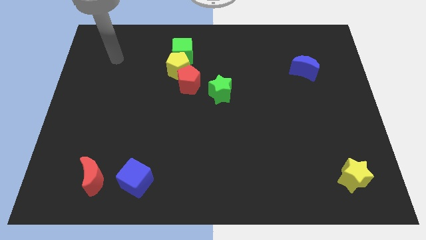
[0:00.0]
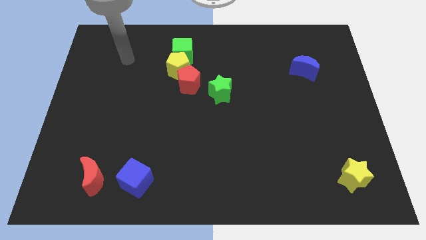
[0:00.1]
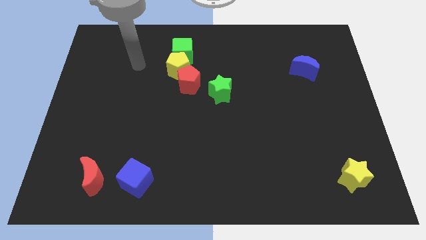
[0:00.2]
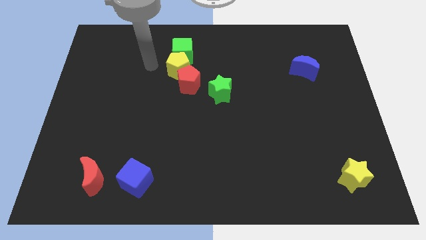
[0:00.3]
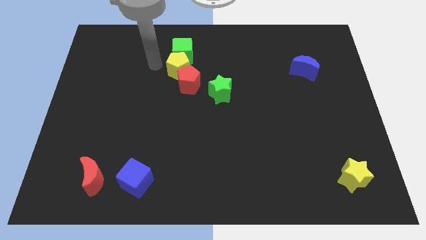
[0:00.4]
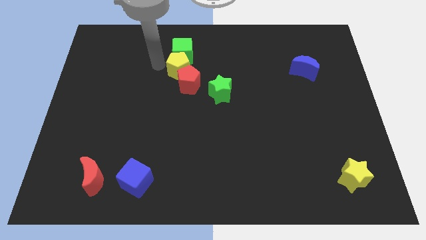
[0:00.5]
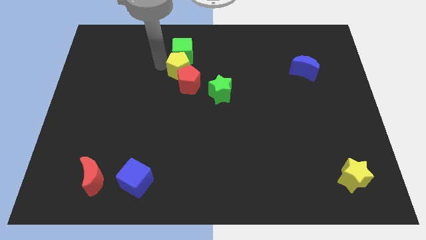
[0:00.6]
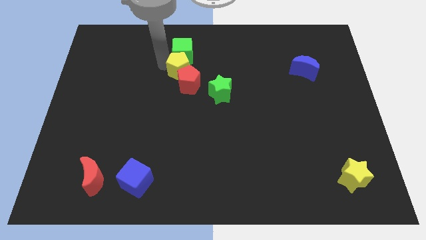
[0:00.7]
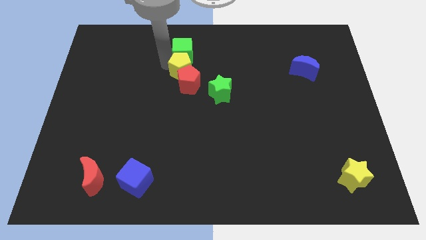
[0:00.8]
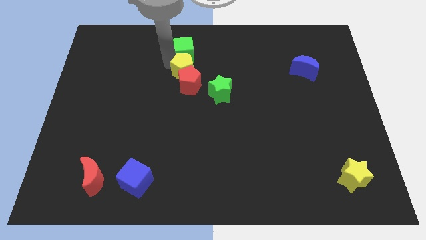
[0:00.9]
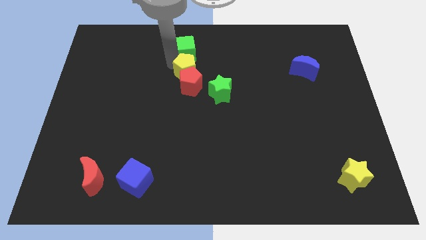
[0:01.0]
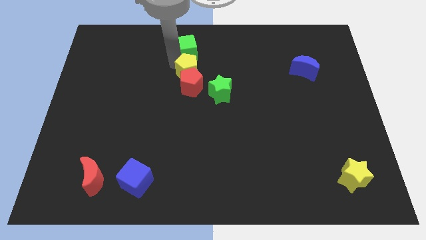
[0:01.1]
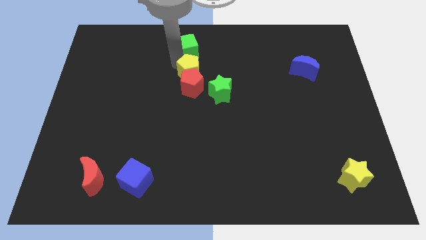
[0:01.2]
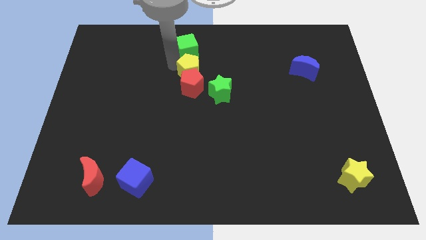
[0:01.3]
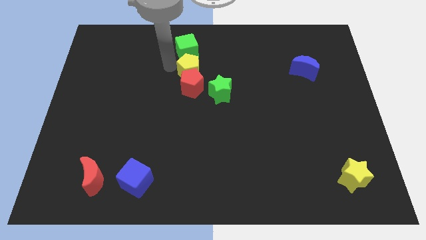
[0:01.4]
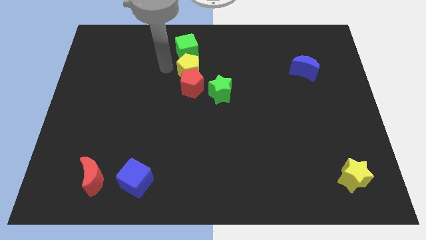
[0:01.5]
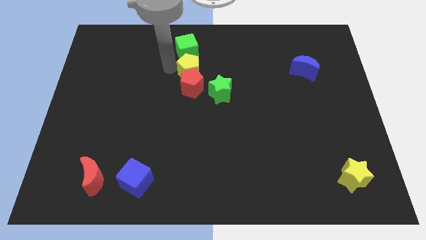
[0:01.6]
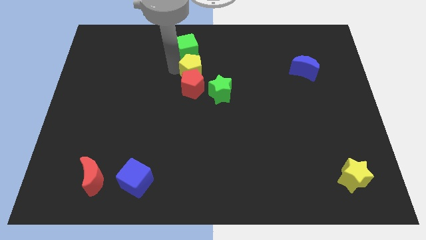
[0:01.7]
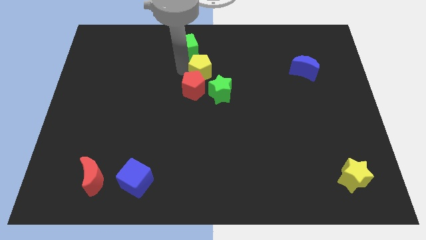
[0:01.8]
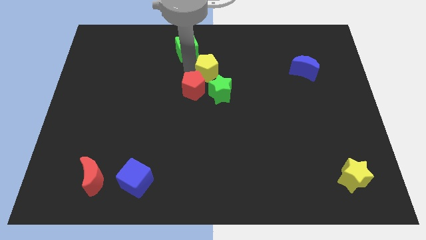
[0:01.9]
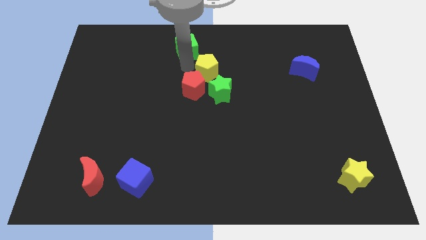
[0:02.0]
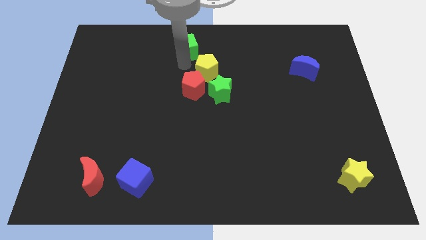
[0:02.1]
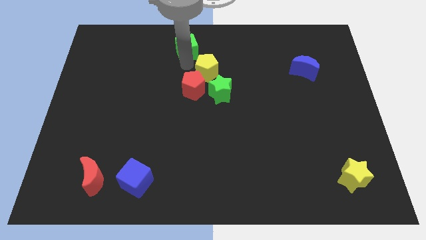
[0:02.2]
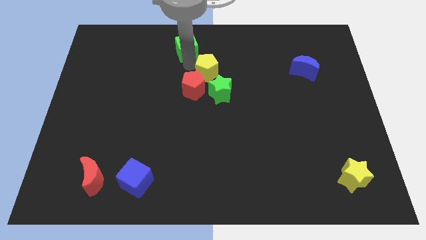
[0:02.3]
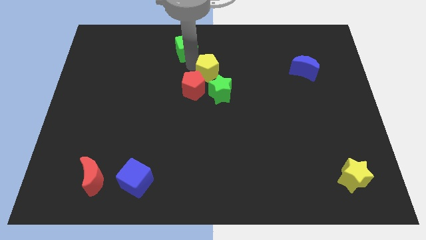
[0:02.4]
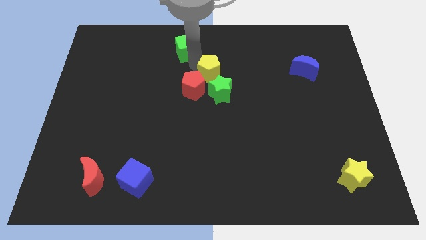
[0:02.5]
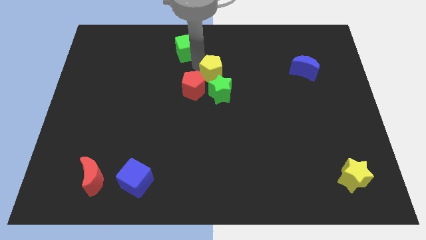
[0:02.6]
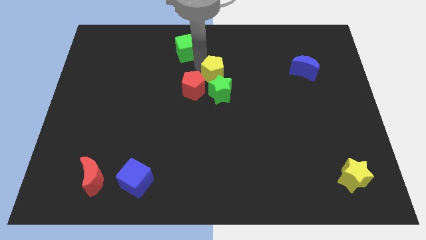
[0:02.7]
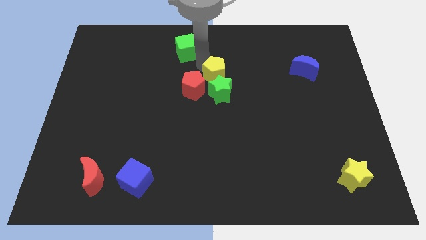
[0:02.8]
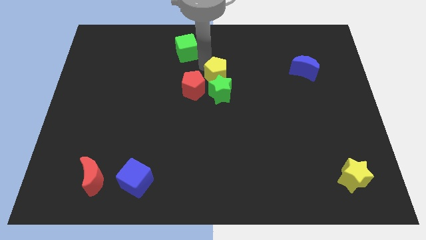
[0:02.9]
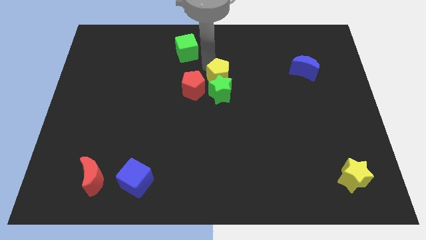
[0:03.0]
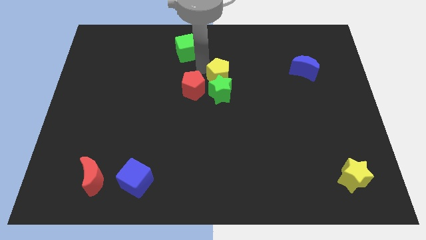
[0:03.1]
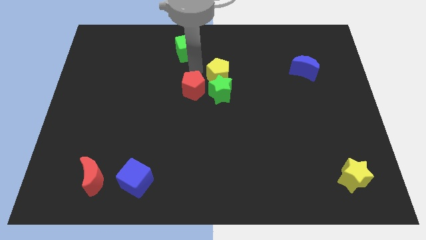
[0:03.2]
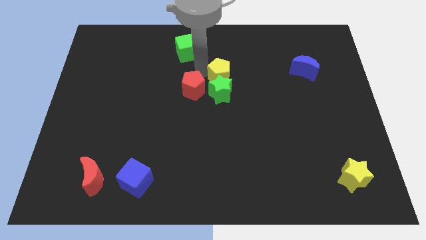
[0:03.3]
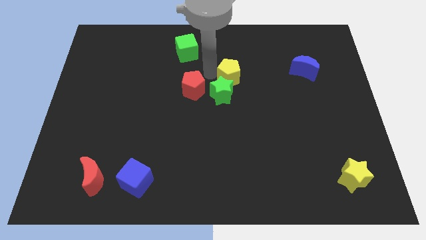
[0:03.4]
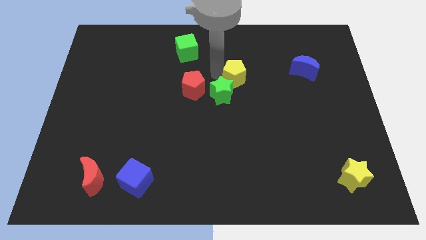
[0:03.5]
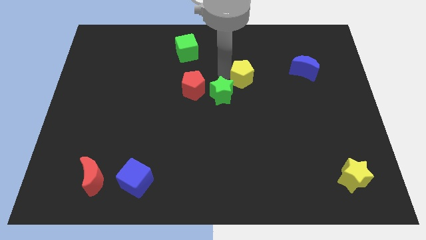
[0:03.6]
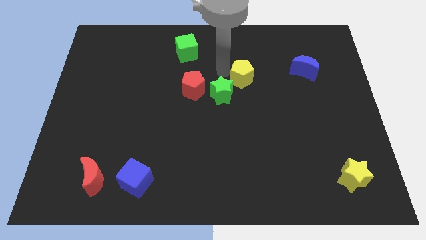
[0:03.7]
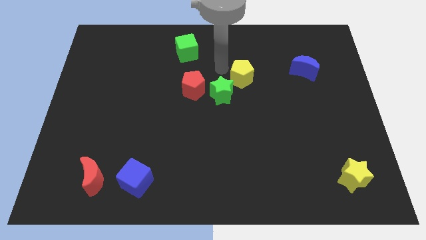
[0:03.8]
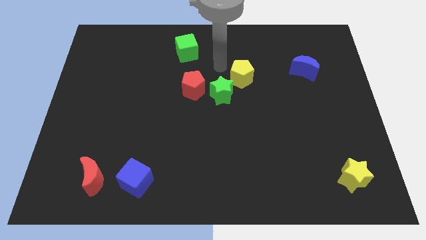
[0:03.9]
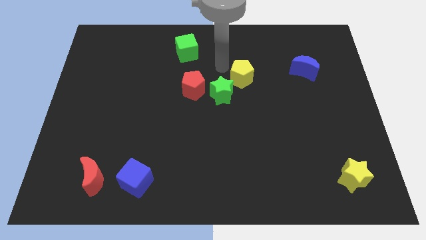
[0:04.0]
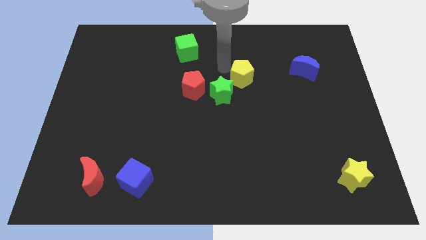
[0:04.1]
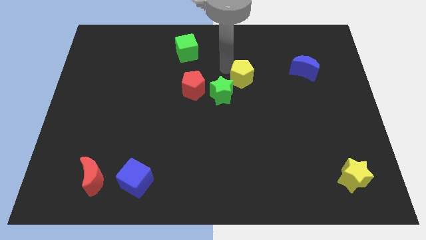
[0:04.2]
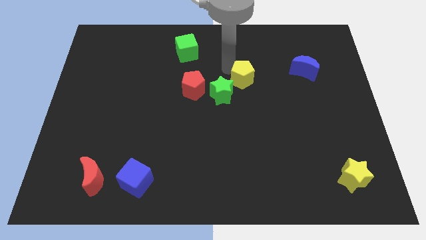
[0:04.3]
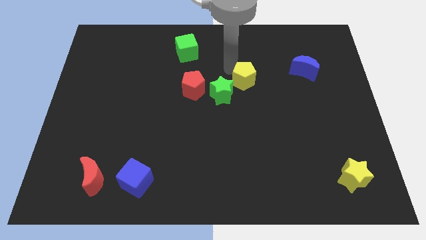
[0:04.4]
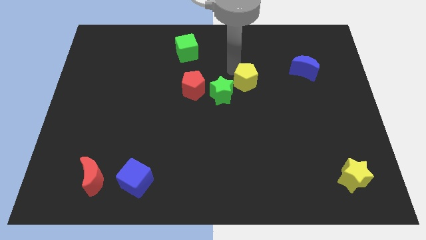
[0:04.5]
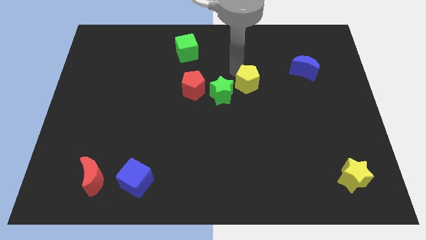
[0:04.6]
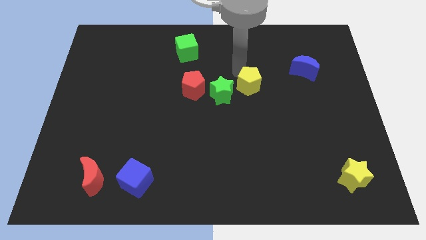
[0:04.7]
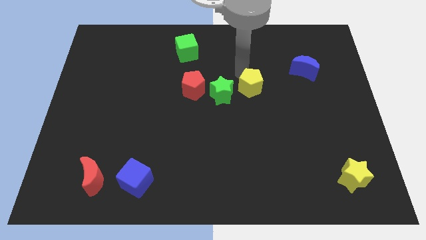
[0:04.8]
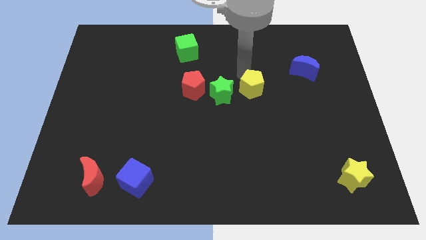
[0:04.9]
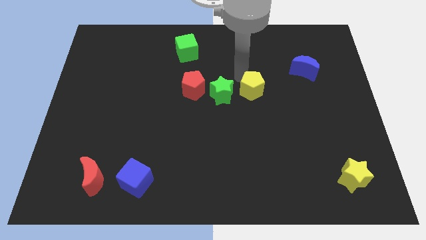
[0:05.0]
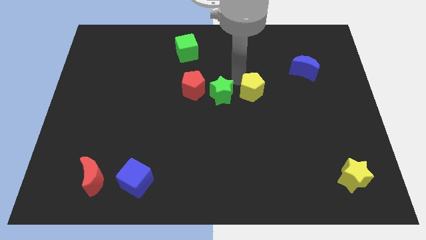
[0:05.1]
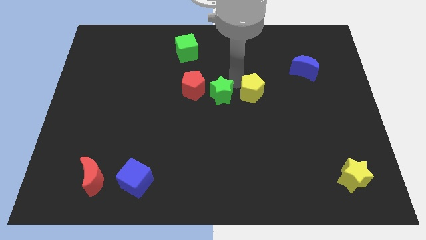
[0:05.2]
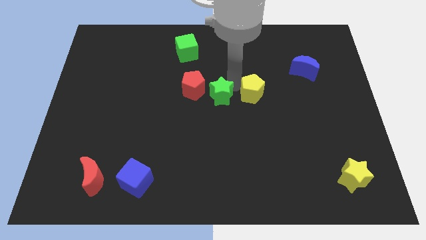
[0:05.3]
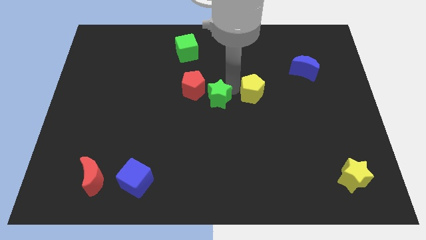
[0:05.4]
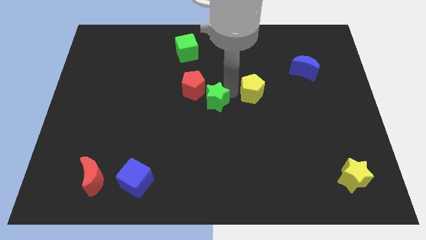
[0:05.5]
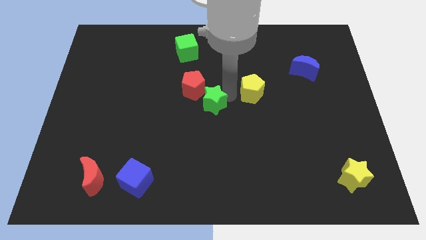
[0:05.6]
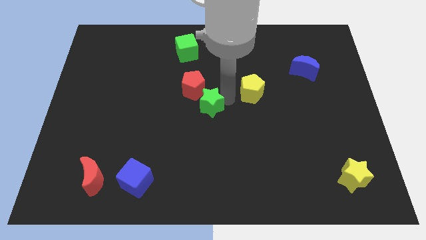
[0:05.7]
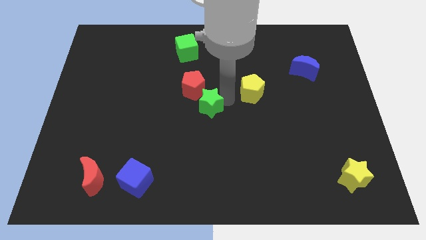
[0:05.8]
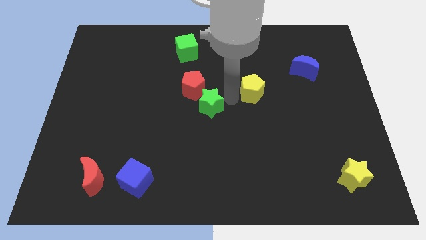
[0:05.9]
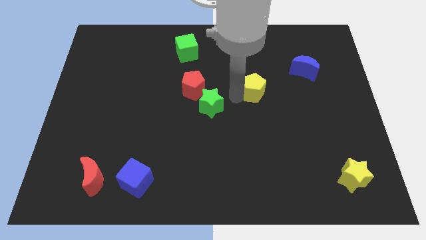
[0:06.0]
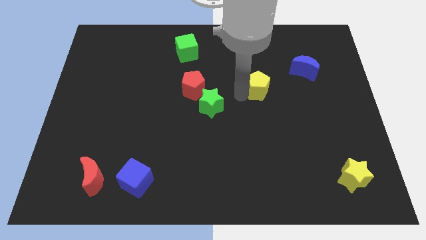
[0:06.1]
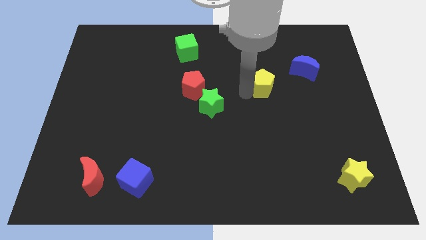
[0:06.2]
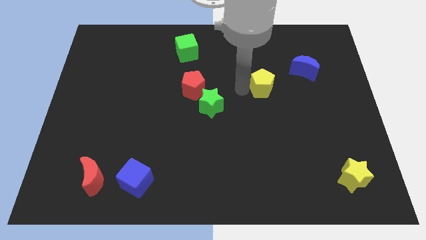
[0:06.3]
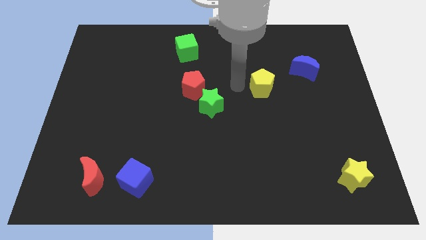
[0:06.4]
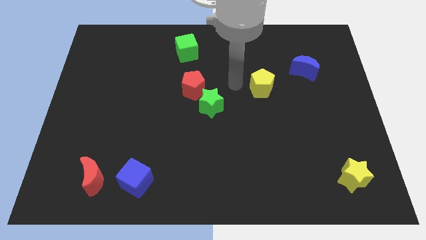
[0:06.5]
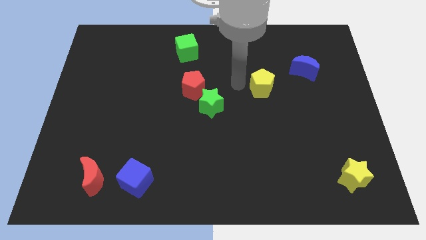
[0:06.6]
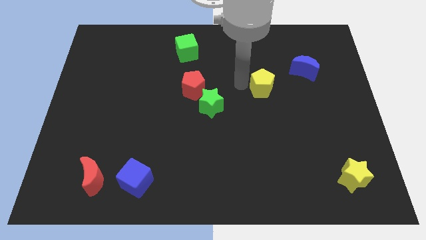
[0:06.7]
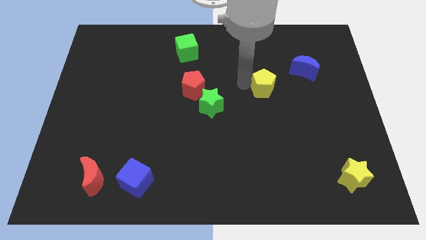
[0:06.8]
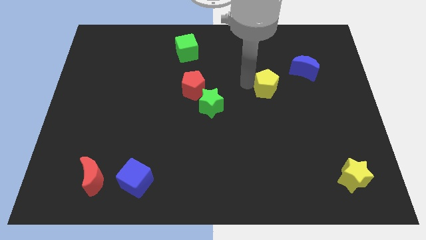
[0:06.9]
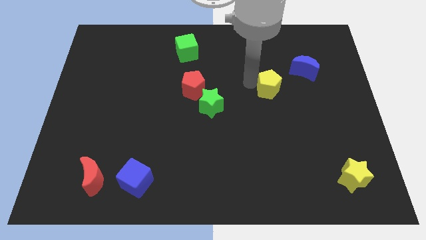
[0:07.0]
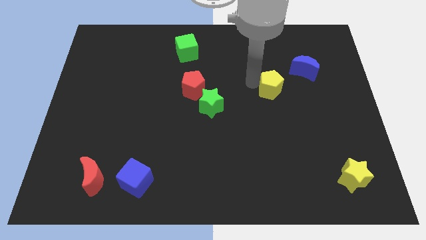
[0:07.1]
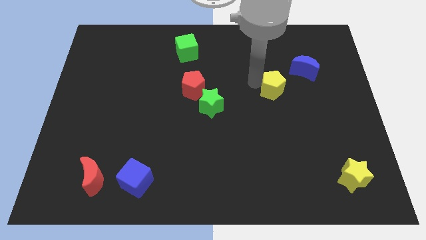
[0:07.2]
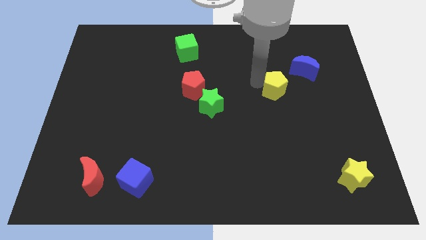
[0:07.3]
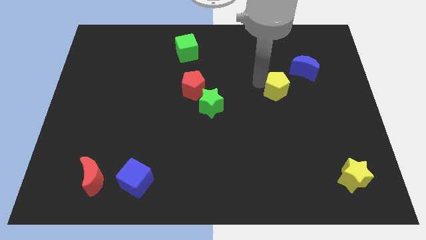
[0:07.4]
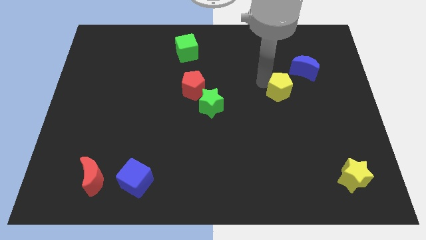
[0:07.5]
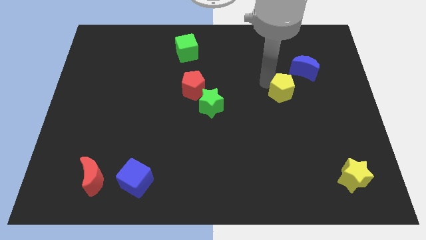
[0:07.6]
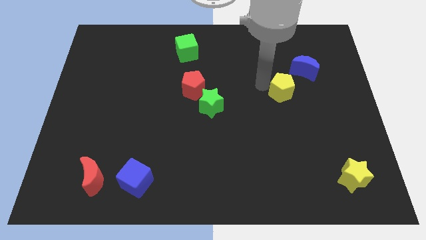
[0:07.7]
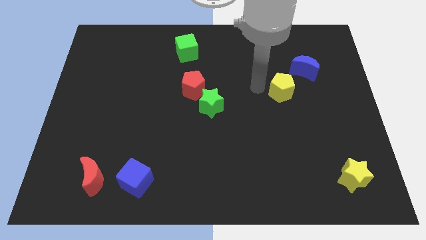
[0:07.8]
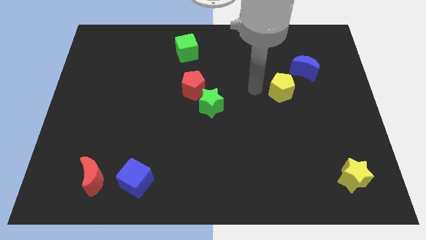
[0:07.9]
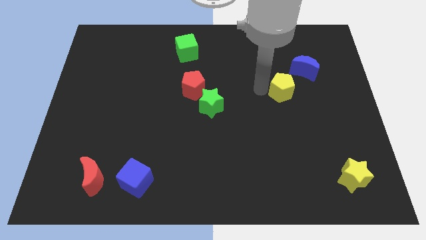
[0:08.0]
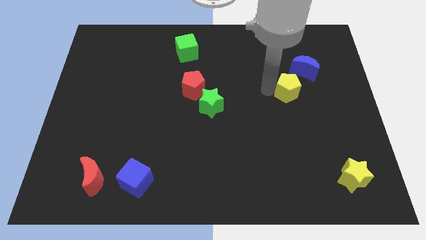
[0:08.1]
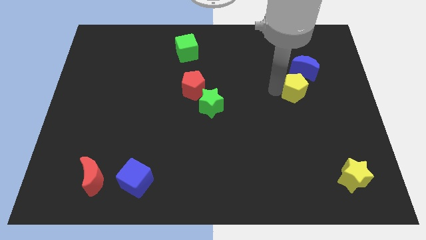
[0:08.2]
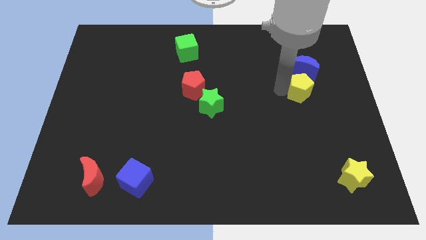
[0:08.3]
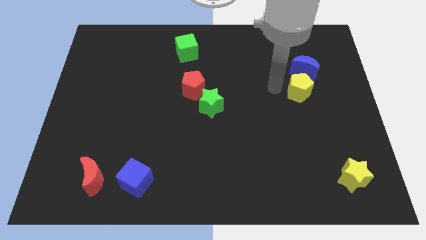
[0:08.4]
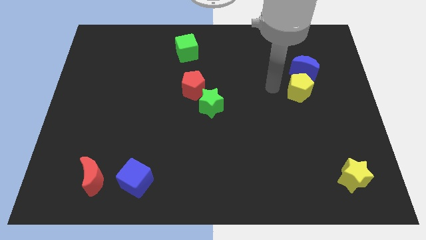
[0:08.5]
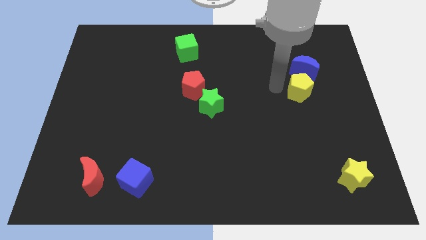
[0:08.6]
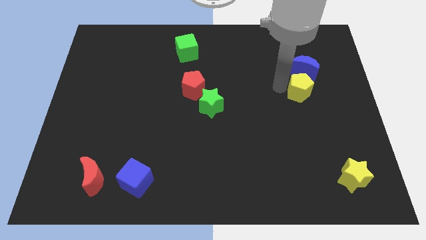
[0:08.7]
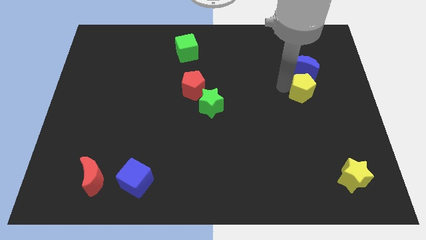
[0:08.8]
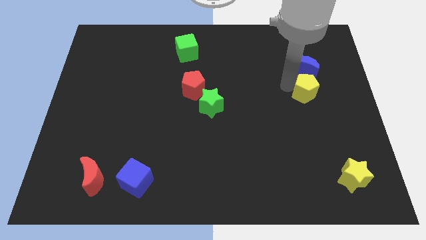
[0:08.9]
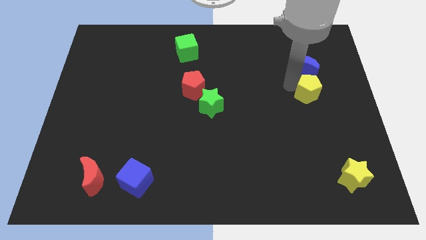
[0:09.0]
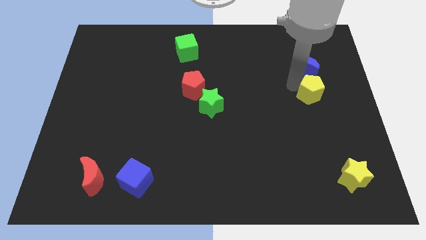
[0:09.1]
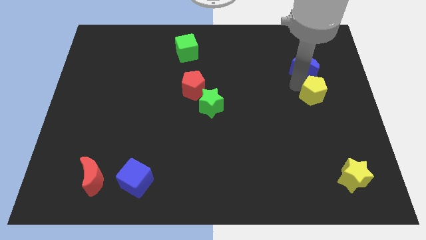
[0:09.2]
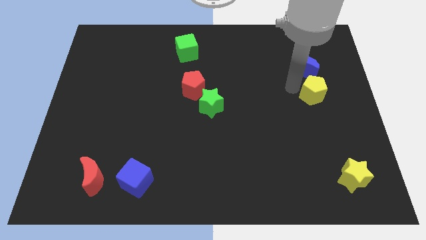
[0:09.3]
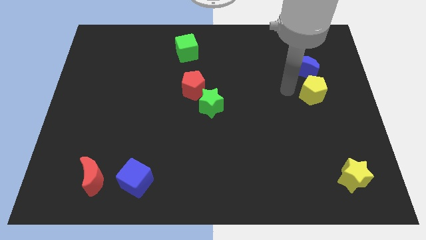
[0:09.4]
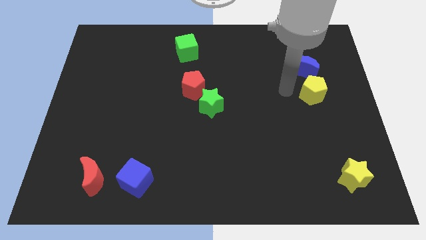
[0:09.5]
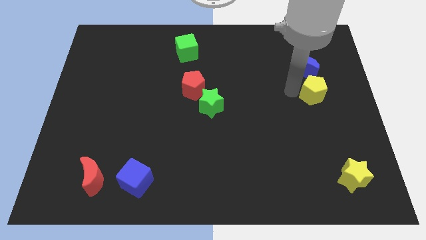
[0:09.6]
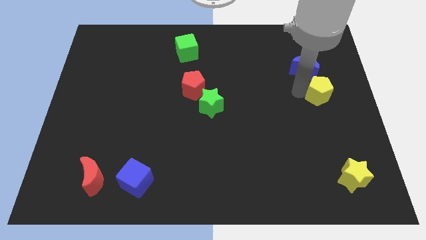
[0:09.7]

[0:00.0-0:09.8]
move the yellow pentagon to the right side
